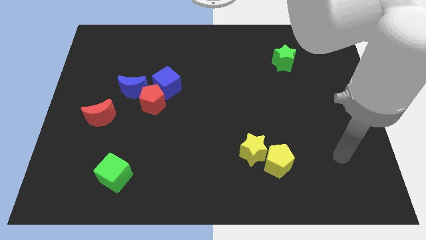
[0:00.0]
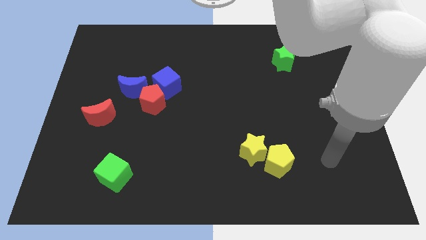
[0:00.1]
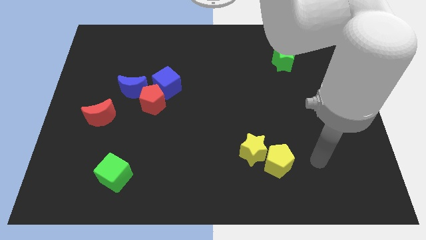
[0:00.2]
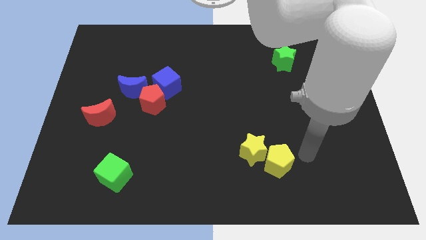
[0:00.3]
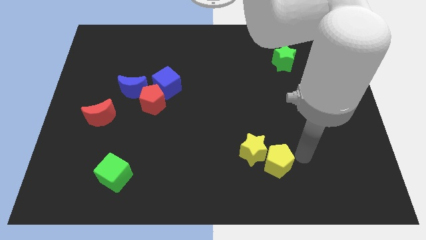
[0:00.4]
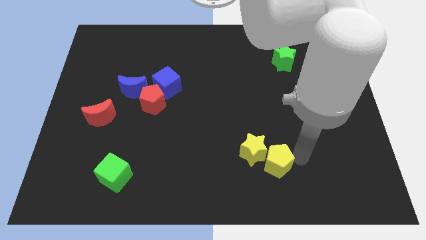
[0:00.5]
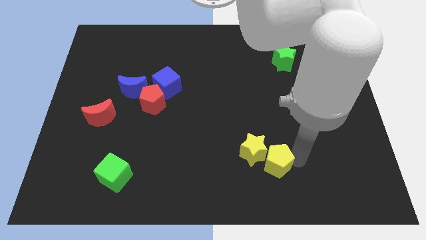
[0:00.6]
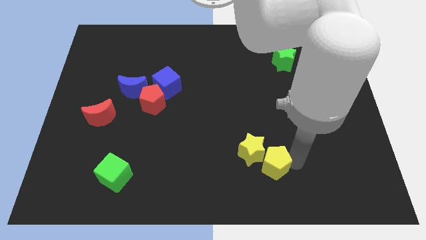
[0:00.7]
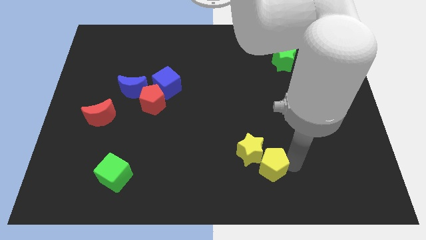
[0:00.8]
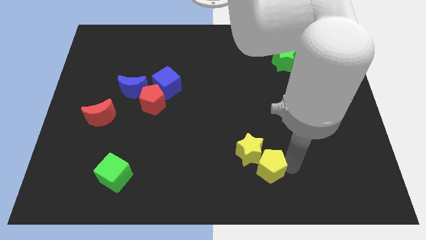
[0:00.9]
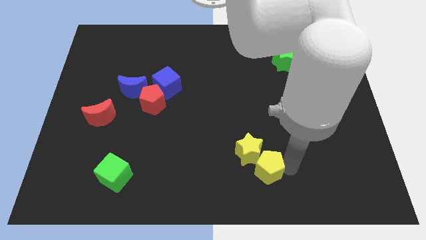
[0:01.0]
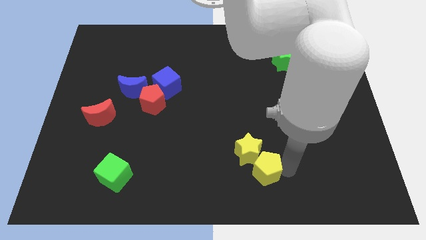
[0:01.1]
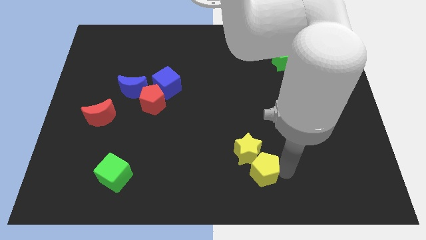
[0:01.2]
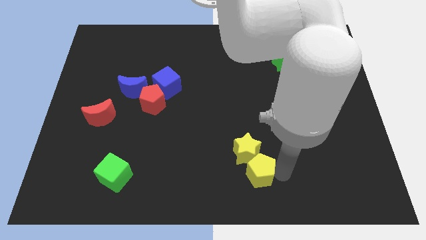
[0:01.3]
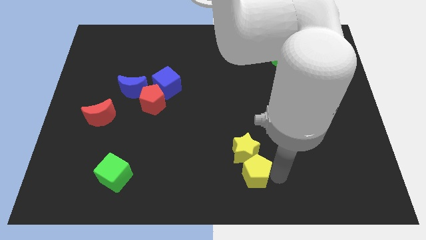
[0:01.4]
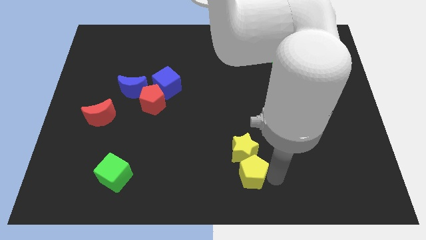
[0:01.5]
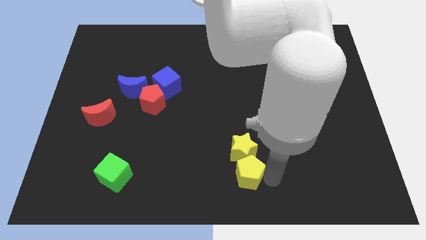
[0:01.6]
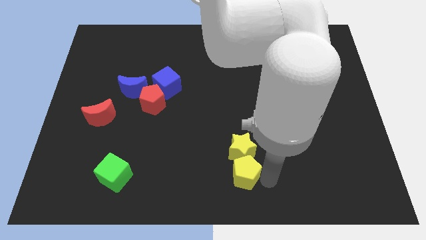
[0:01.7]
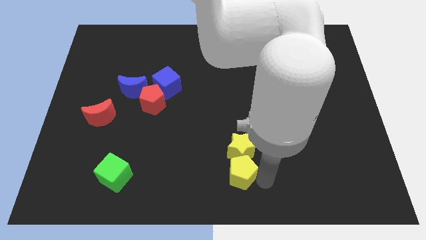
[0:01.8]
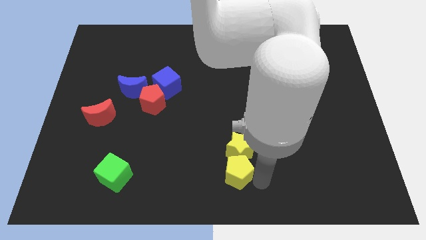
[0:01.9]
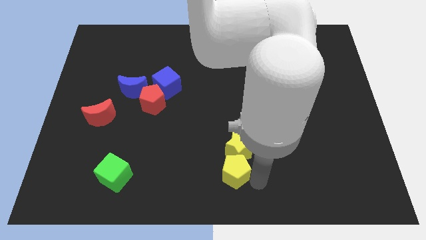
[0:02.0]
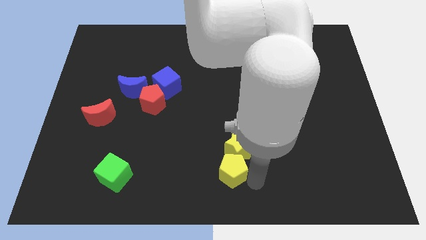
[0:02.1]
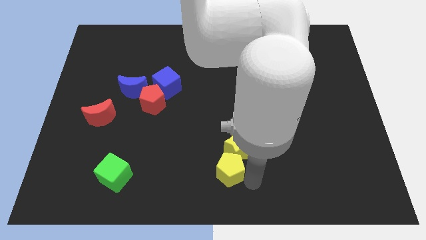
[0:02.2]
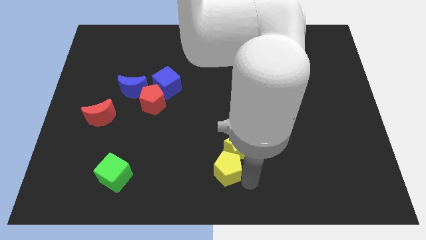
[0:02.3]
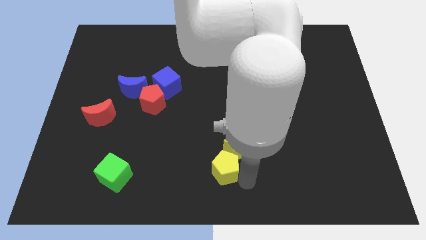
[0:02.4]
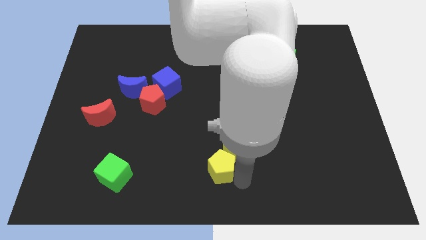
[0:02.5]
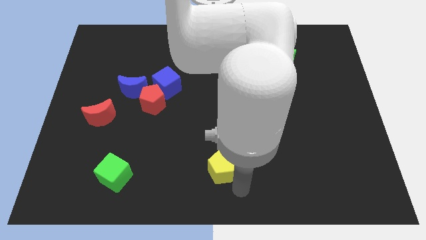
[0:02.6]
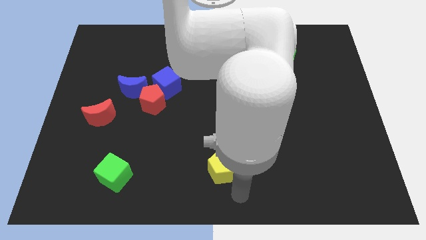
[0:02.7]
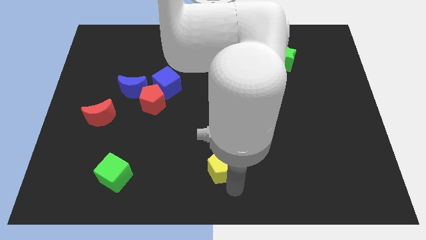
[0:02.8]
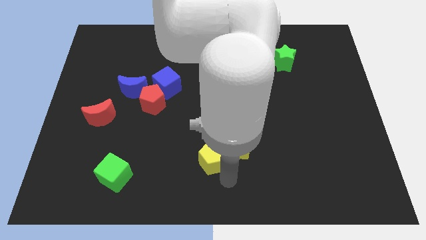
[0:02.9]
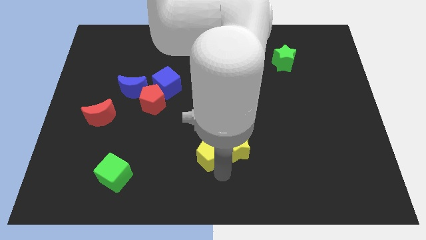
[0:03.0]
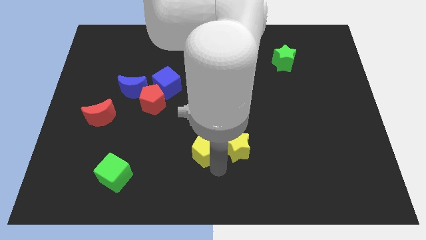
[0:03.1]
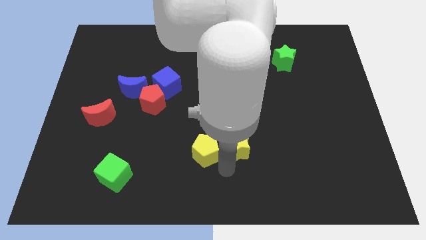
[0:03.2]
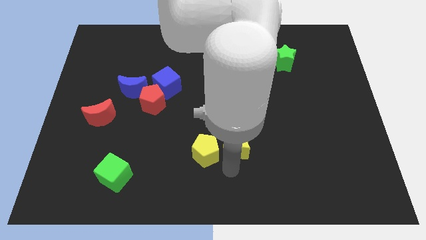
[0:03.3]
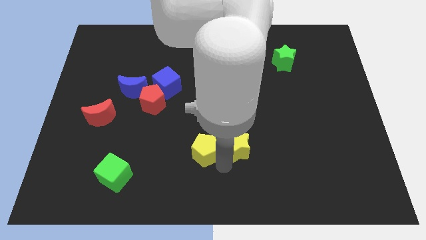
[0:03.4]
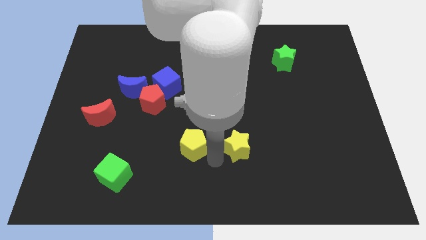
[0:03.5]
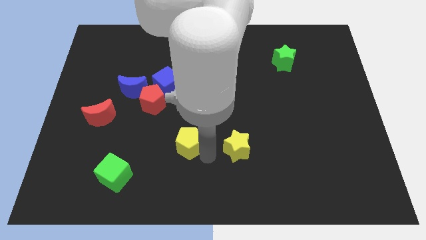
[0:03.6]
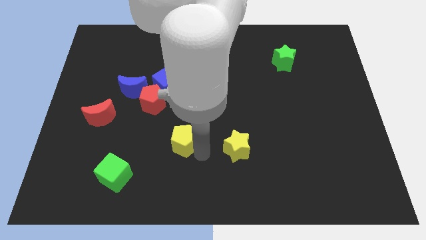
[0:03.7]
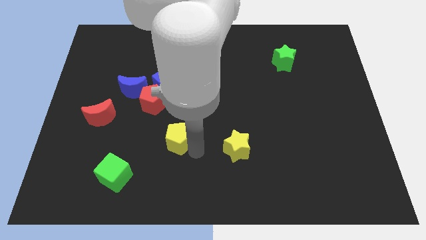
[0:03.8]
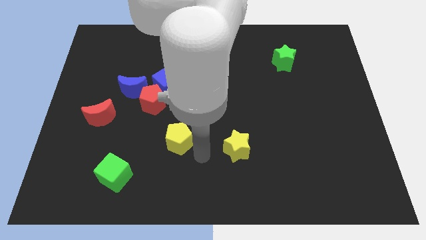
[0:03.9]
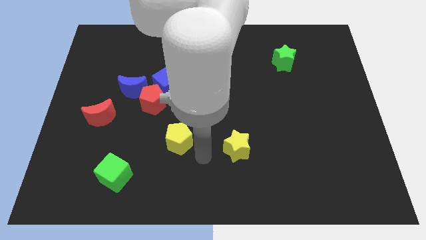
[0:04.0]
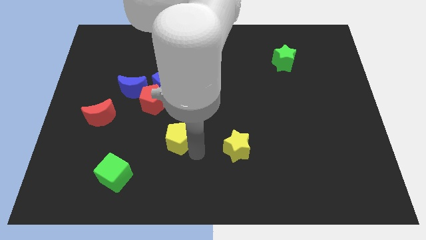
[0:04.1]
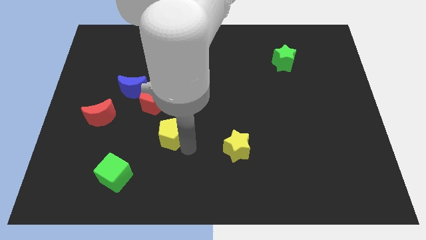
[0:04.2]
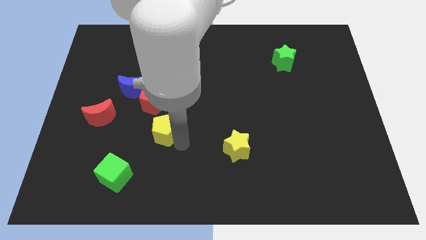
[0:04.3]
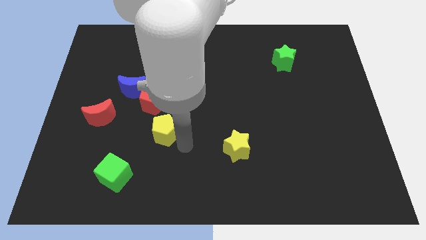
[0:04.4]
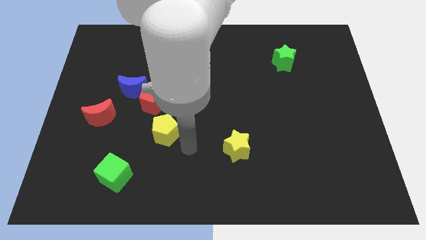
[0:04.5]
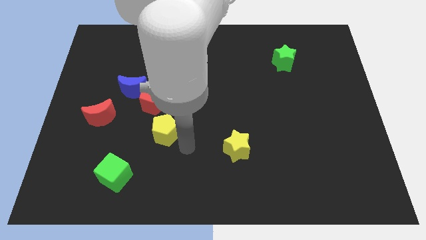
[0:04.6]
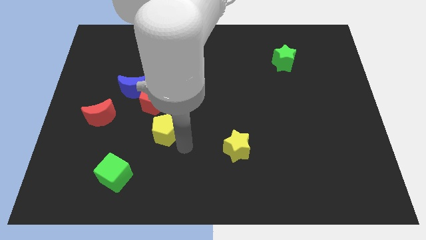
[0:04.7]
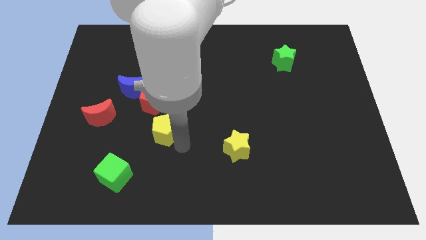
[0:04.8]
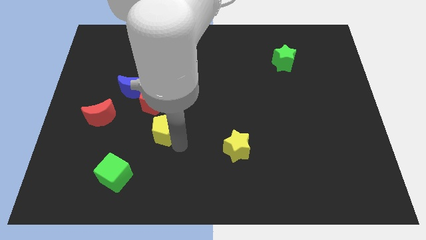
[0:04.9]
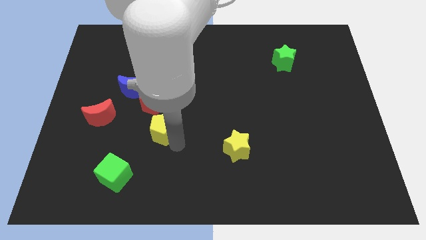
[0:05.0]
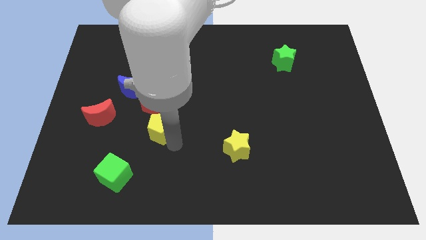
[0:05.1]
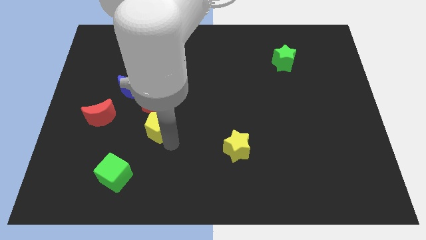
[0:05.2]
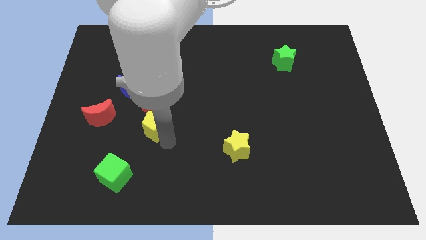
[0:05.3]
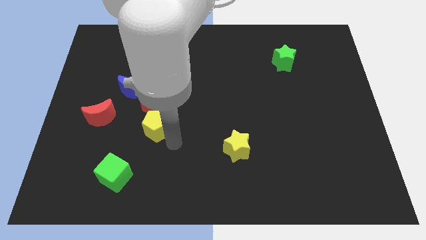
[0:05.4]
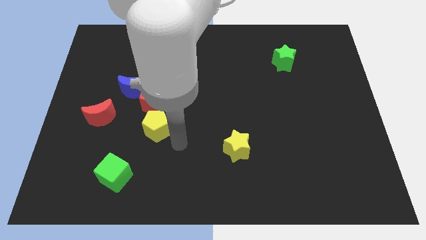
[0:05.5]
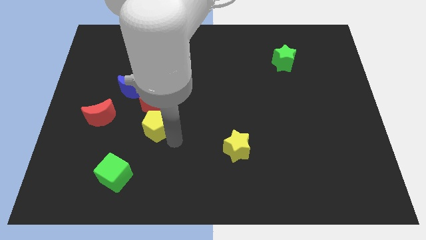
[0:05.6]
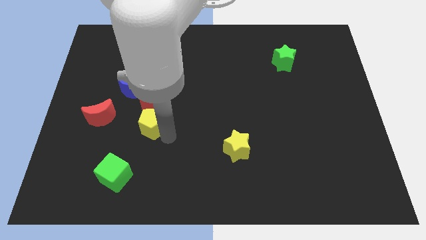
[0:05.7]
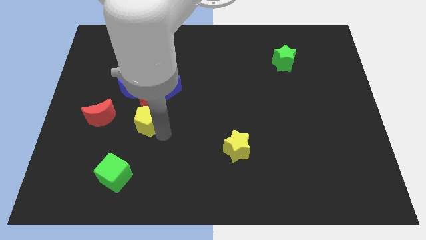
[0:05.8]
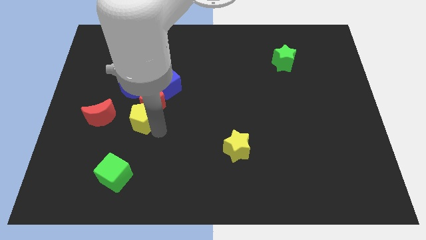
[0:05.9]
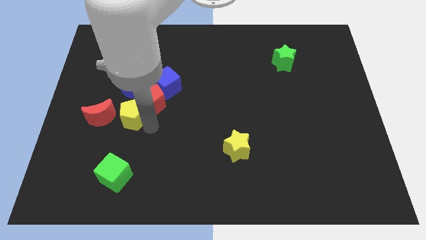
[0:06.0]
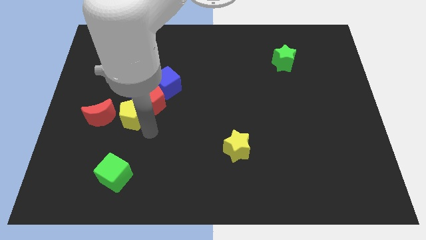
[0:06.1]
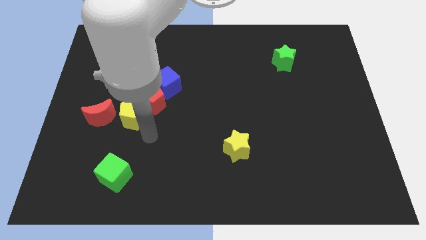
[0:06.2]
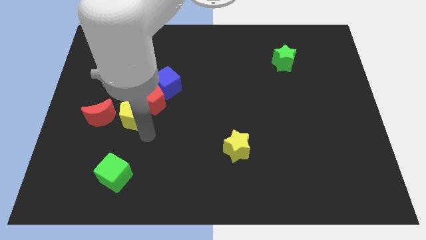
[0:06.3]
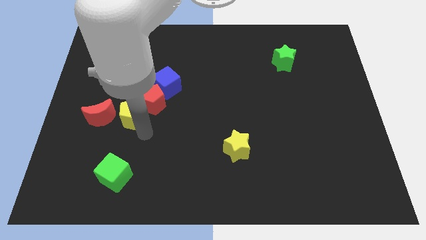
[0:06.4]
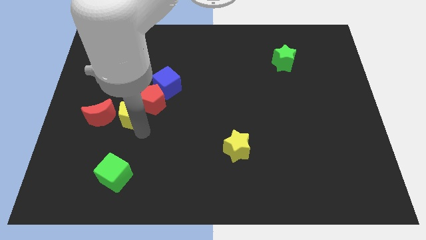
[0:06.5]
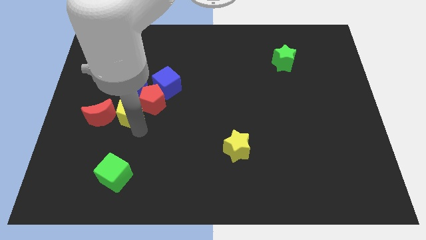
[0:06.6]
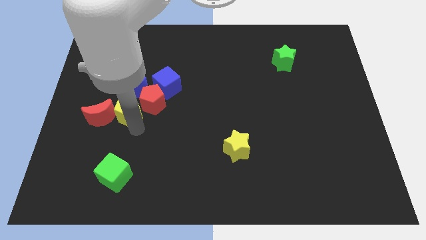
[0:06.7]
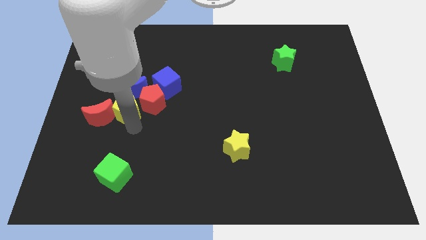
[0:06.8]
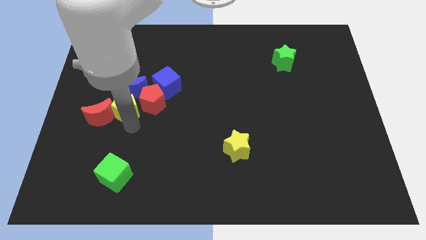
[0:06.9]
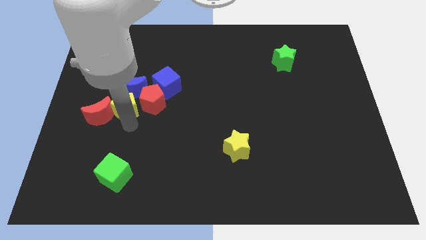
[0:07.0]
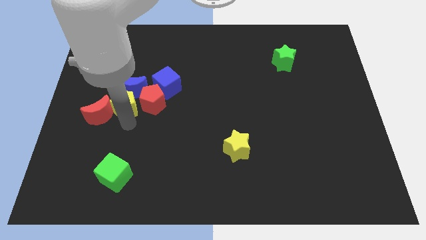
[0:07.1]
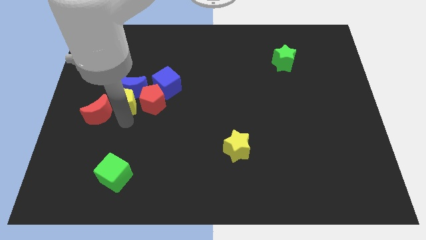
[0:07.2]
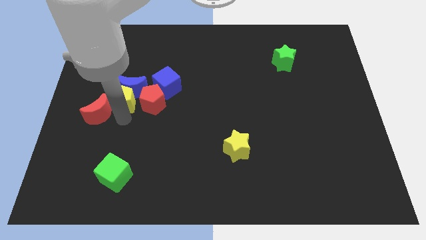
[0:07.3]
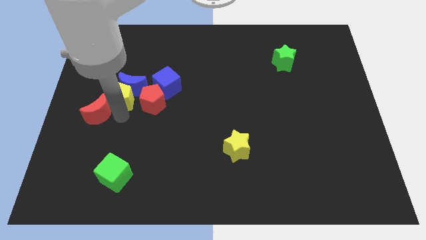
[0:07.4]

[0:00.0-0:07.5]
slide the yellow pentagon to the top of the red moon
